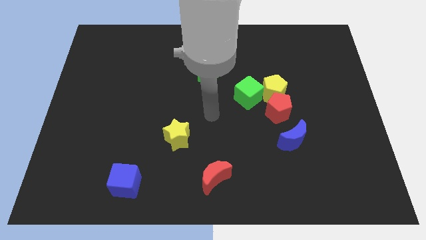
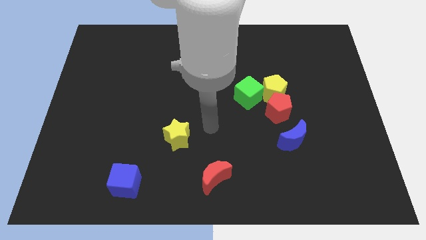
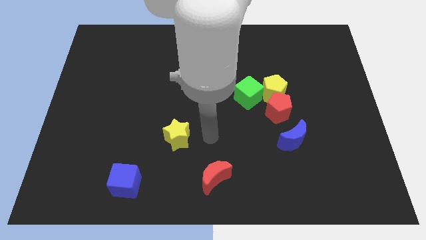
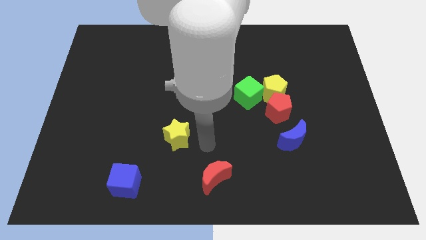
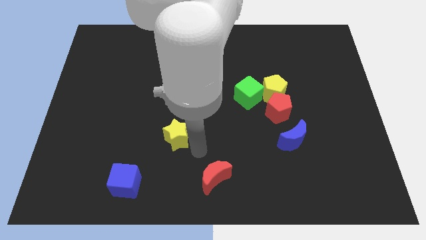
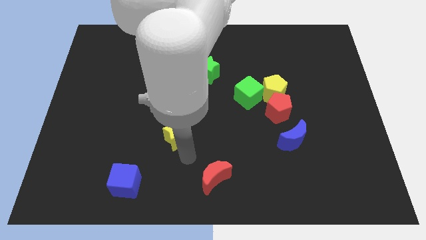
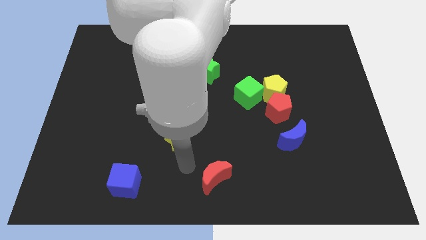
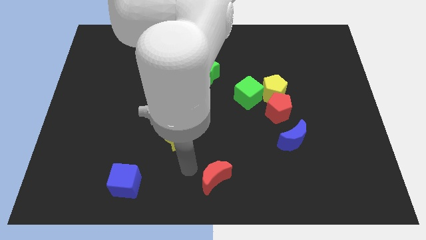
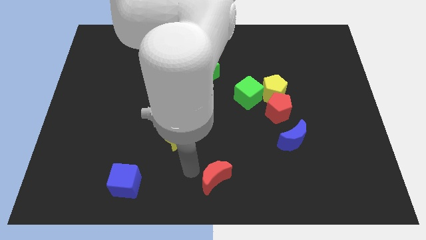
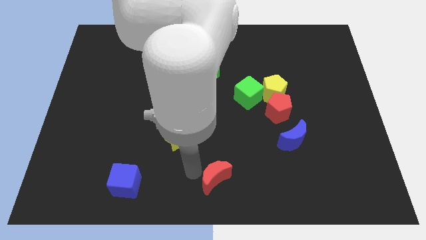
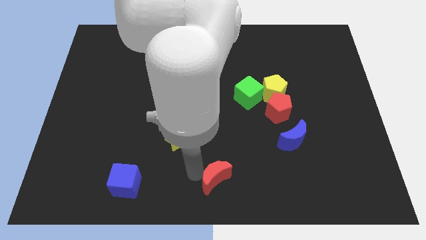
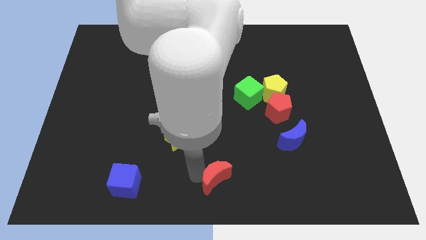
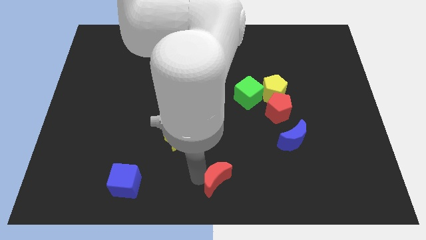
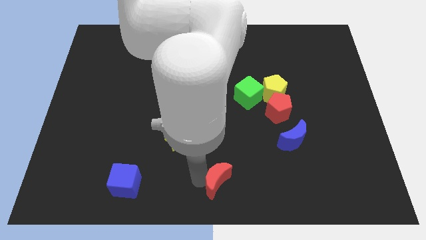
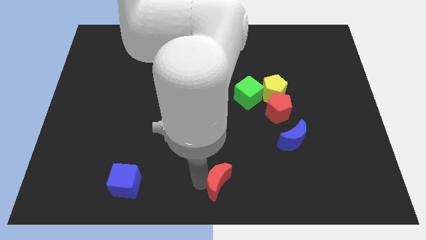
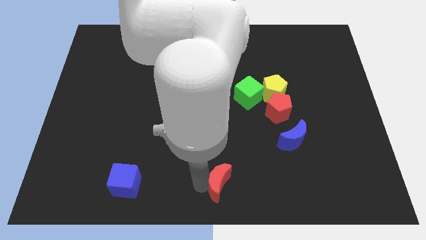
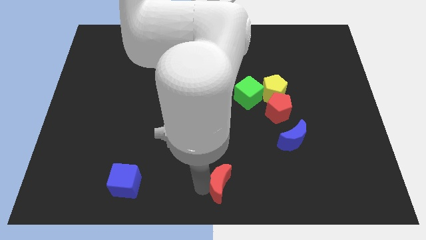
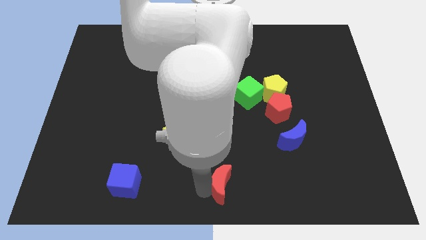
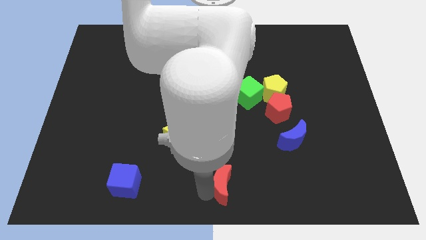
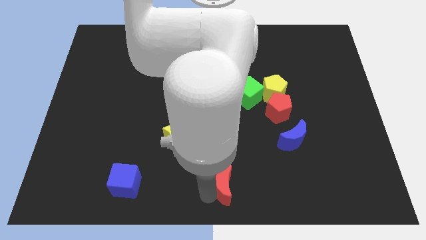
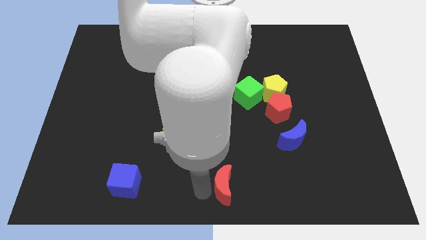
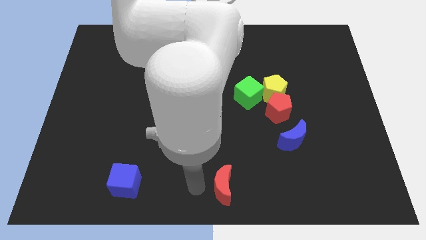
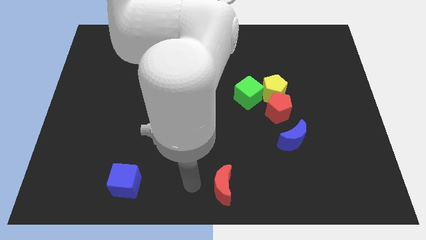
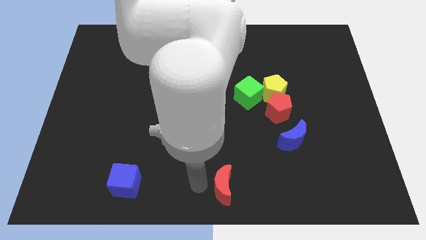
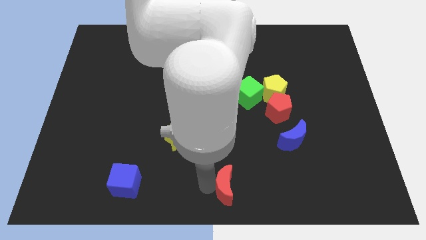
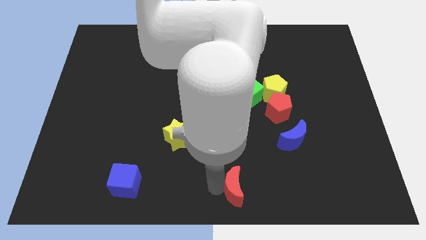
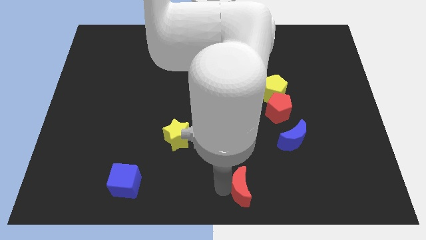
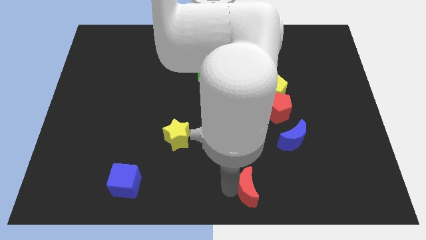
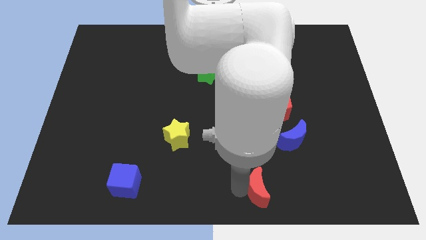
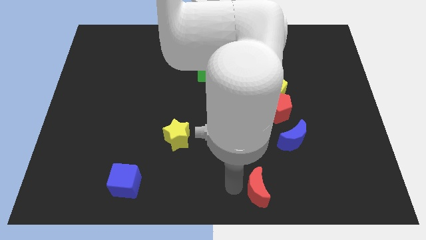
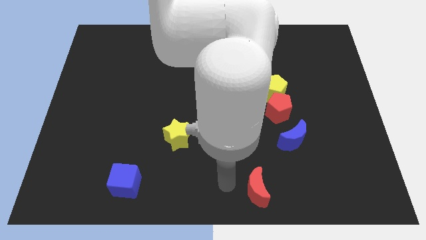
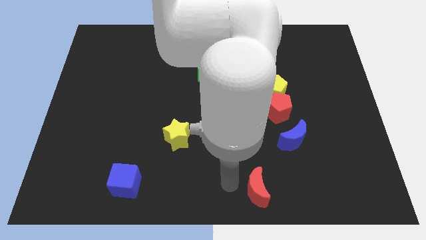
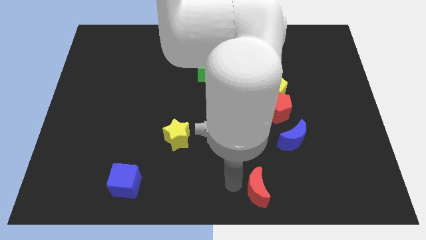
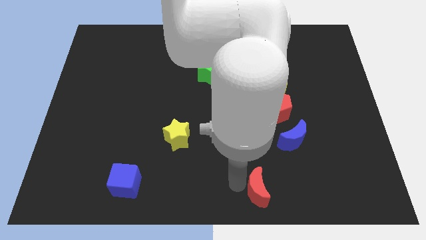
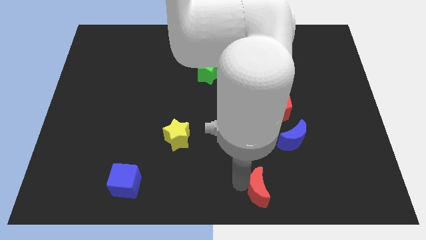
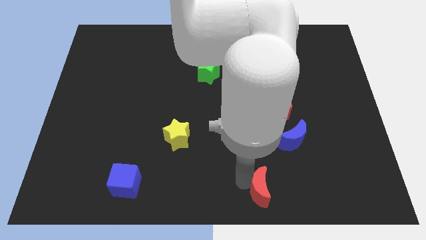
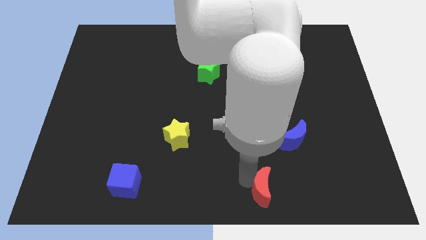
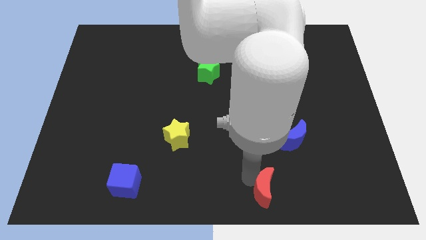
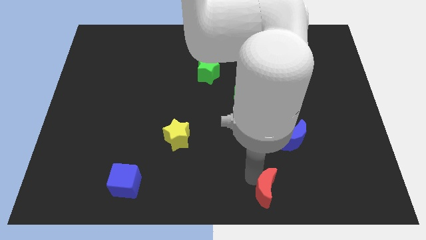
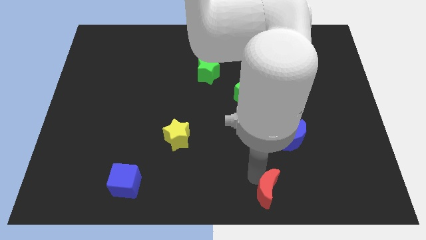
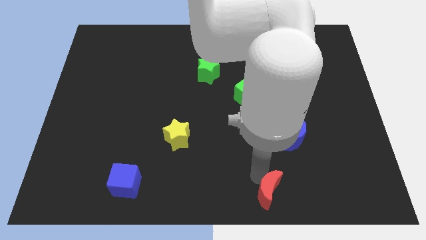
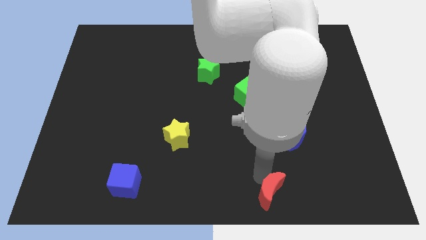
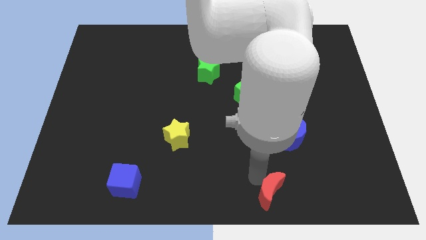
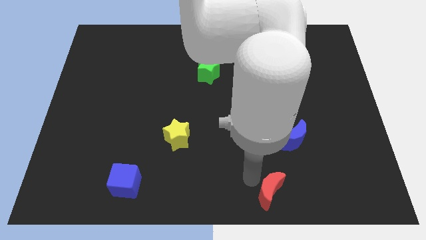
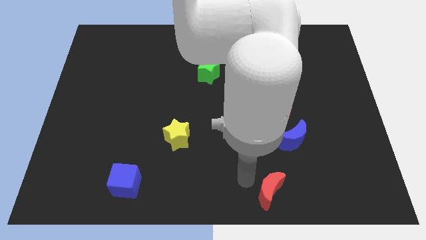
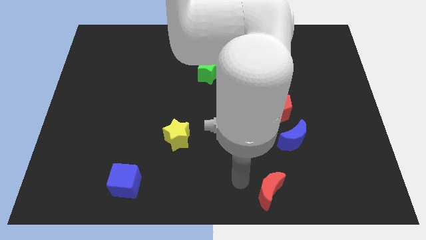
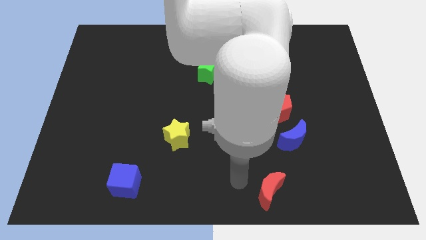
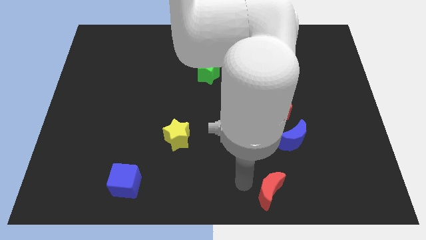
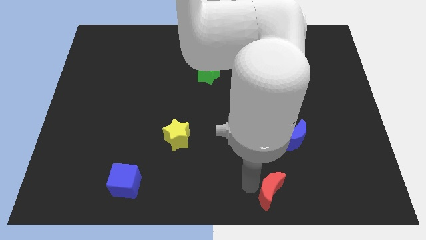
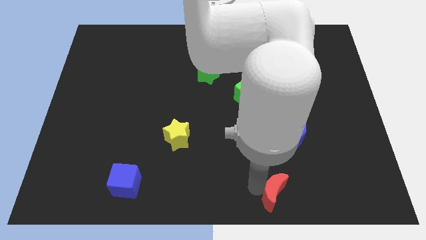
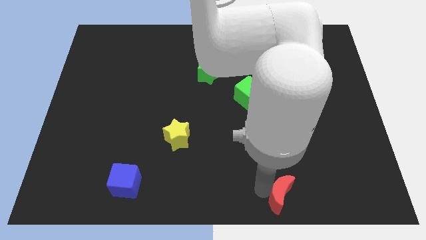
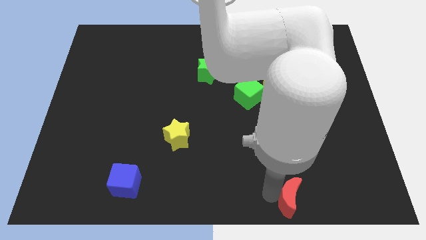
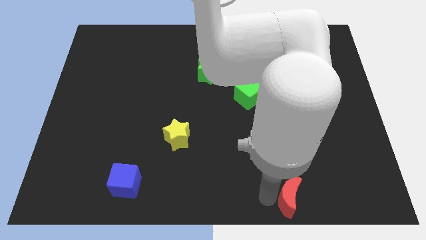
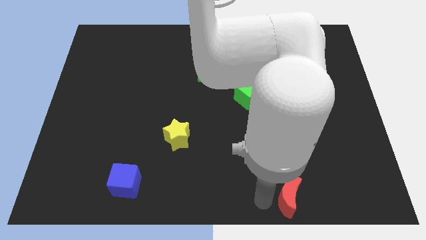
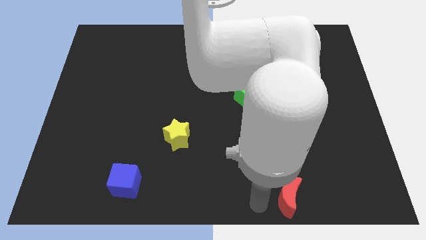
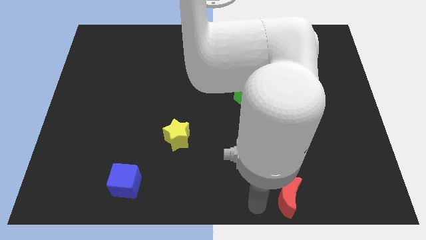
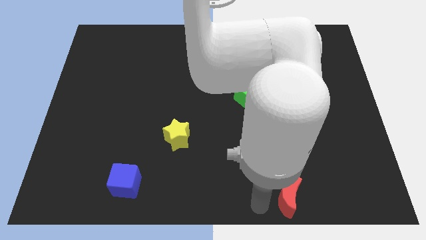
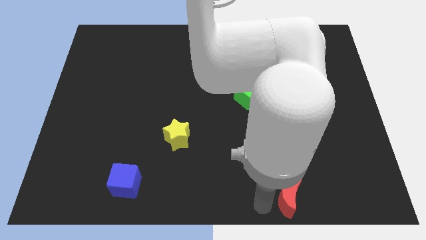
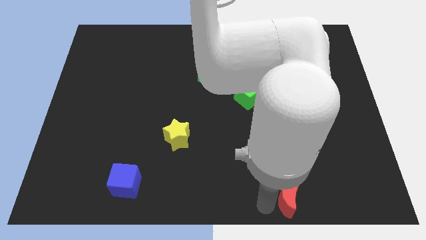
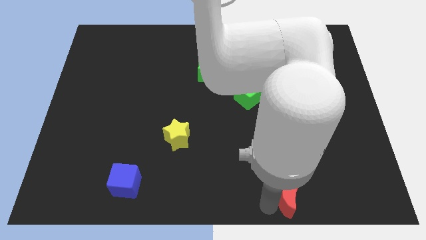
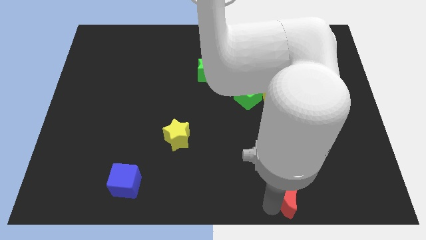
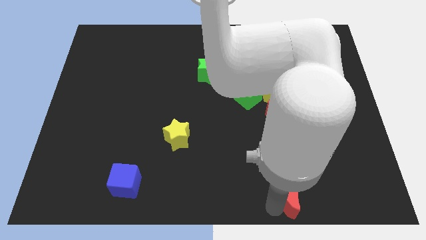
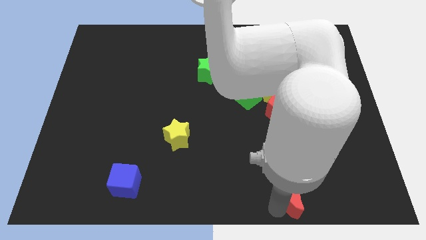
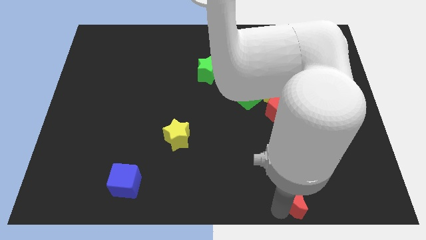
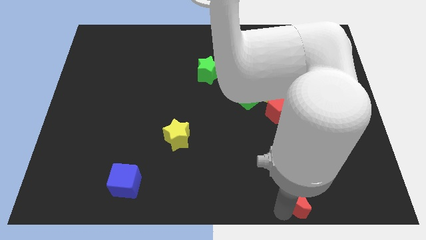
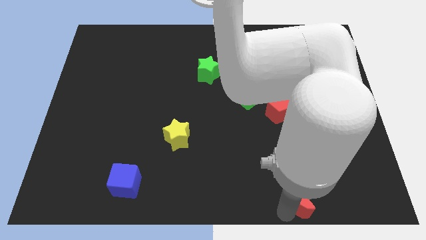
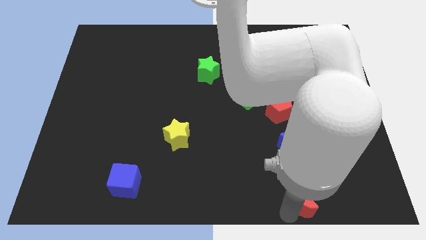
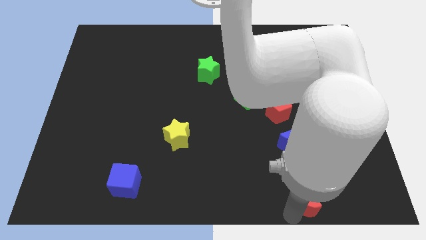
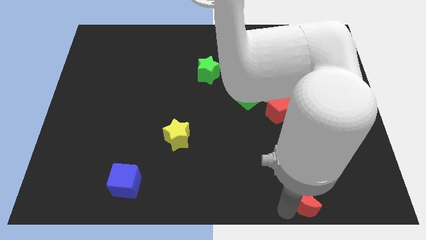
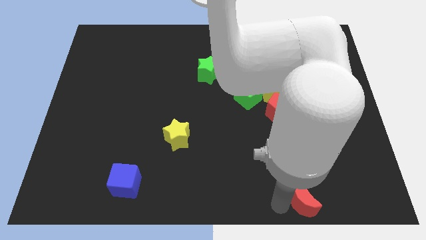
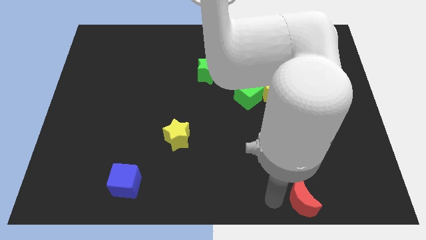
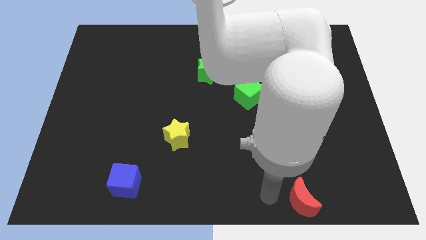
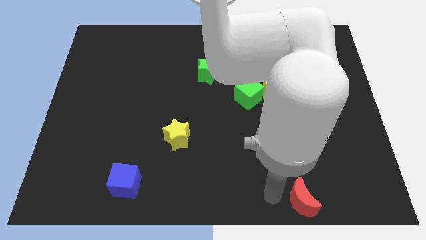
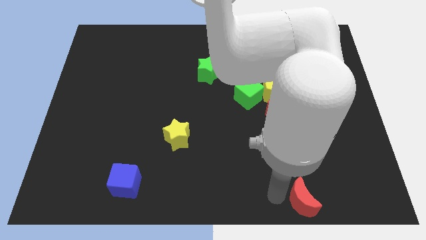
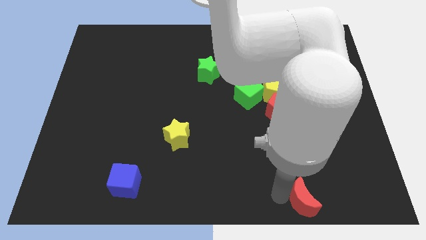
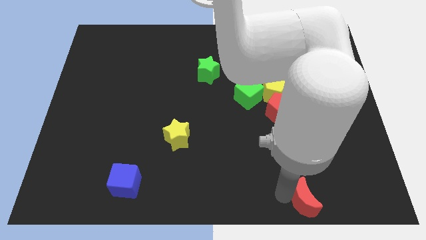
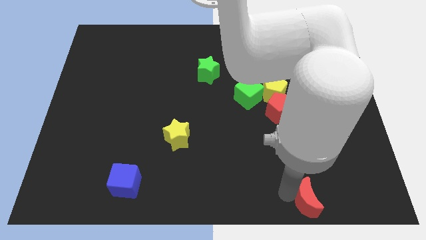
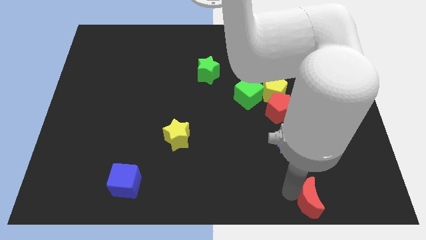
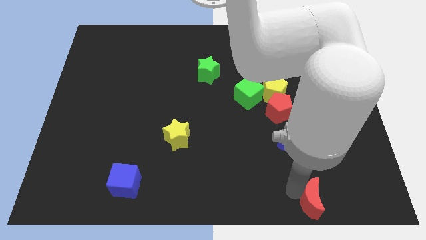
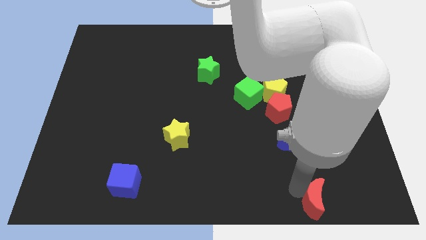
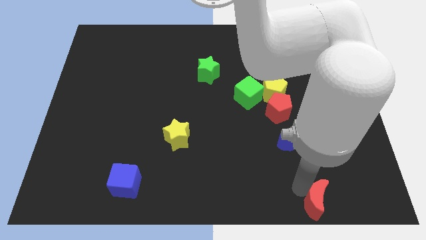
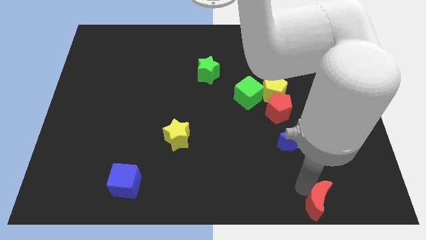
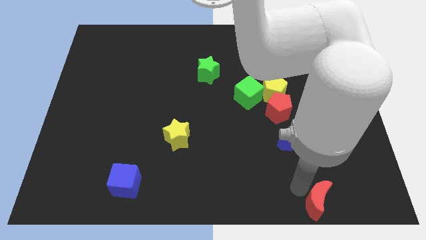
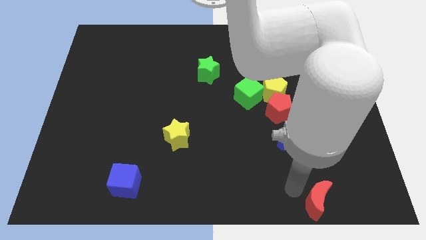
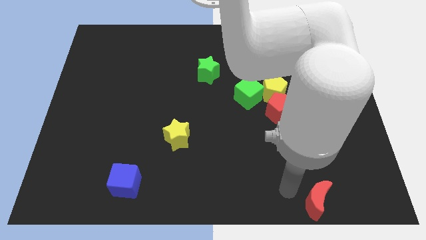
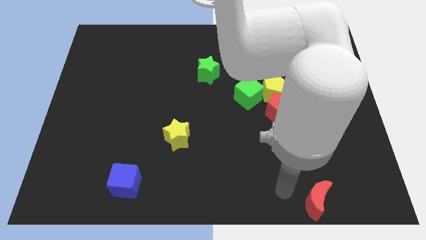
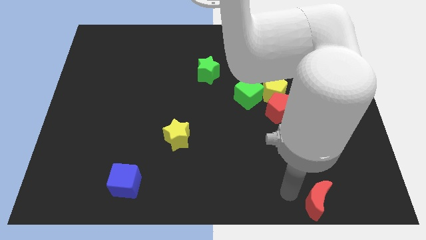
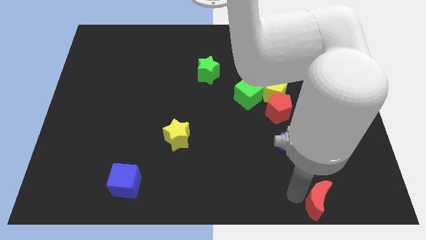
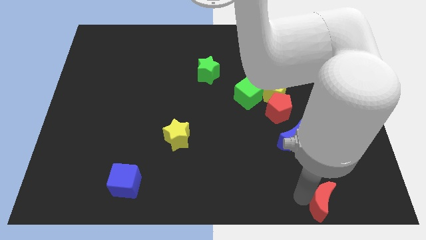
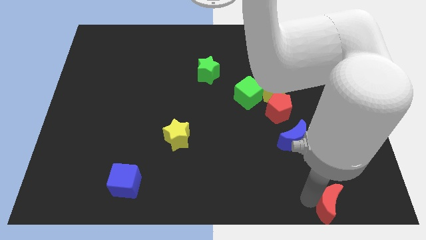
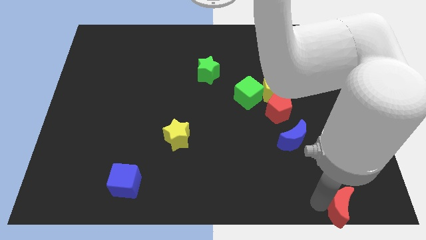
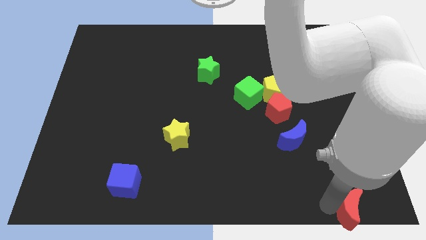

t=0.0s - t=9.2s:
slide the red moon to the bottom right
